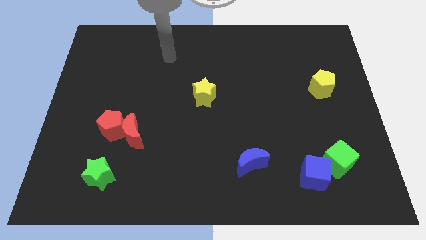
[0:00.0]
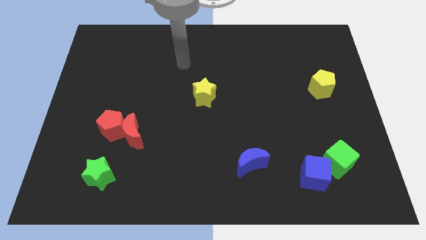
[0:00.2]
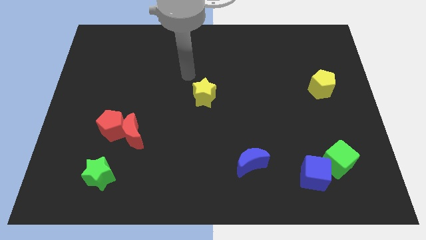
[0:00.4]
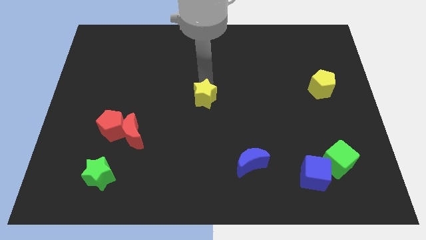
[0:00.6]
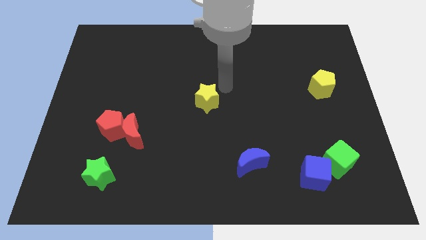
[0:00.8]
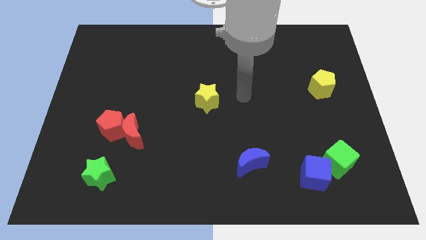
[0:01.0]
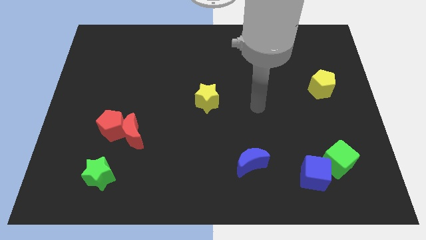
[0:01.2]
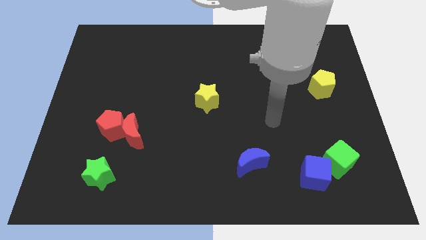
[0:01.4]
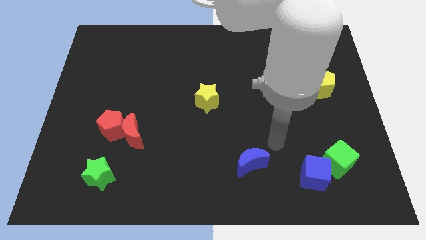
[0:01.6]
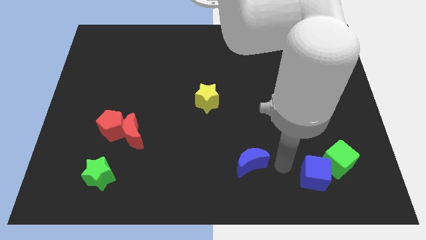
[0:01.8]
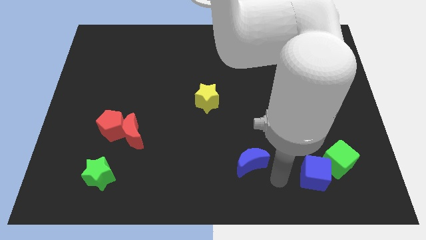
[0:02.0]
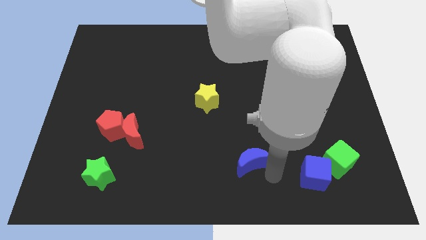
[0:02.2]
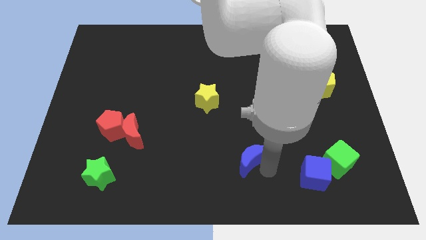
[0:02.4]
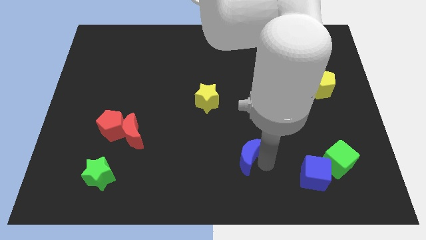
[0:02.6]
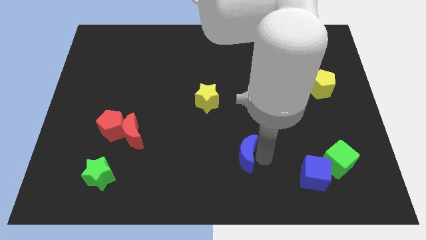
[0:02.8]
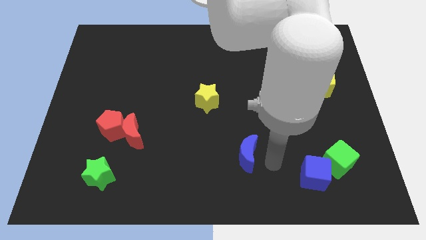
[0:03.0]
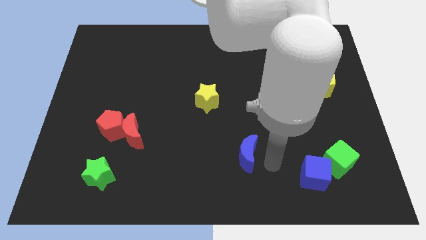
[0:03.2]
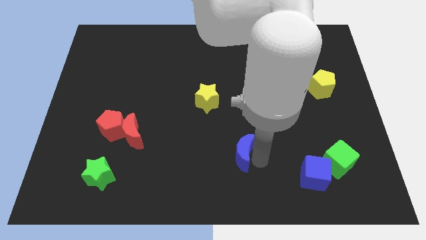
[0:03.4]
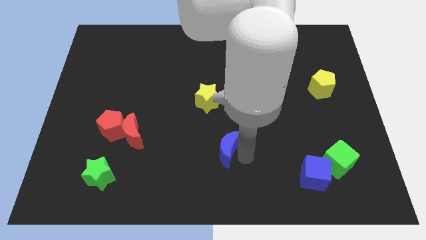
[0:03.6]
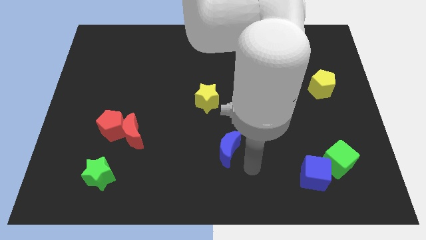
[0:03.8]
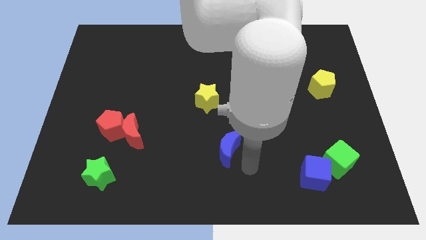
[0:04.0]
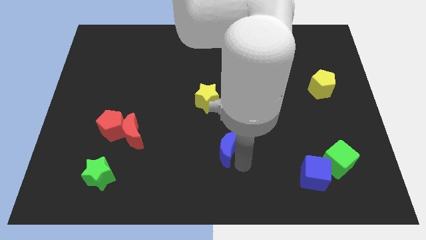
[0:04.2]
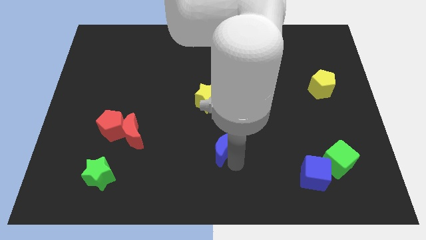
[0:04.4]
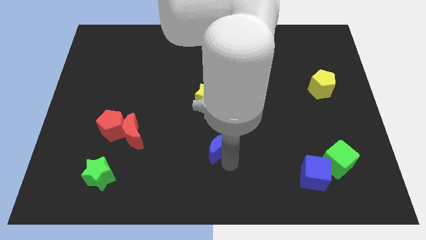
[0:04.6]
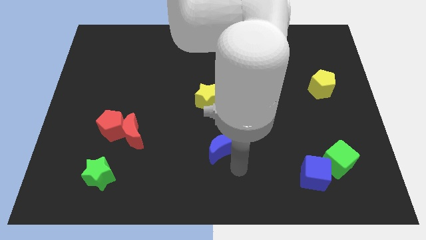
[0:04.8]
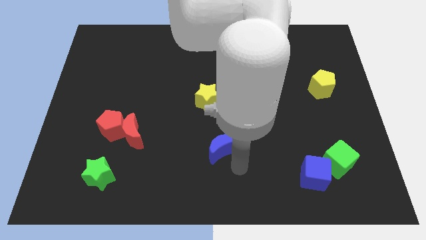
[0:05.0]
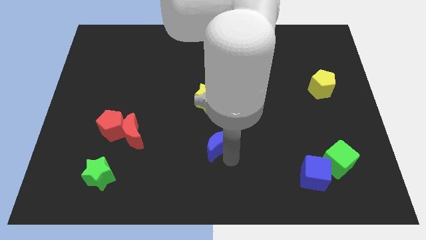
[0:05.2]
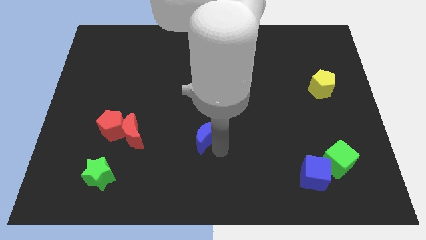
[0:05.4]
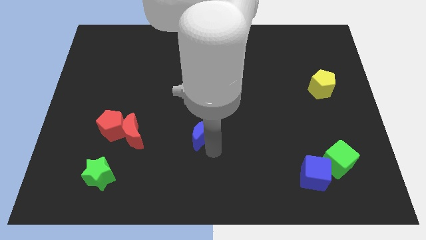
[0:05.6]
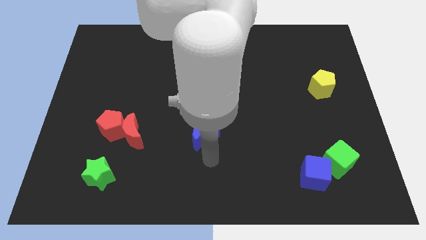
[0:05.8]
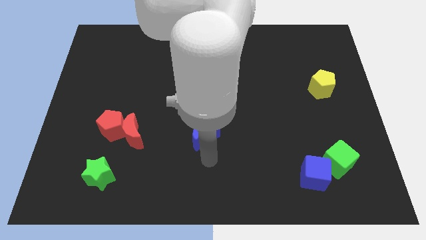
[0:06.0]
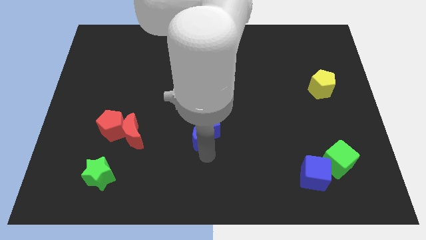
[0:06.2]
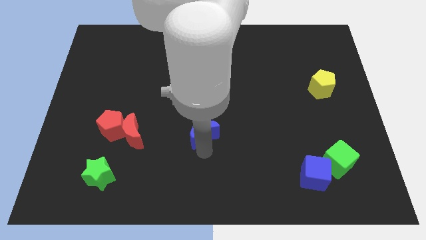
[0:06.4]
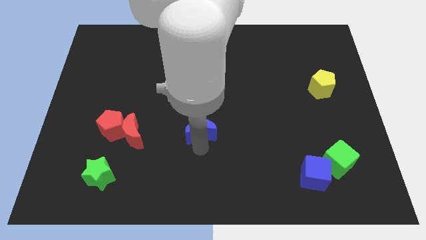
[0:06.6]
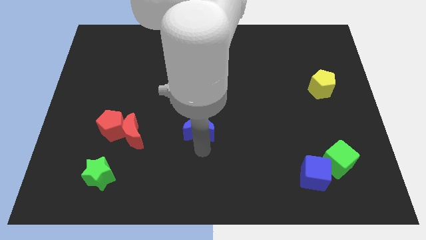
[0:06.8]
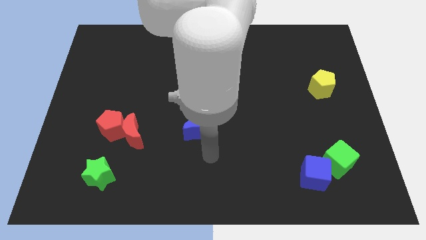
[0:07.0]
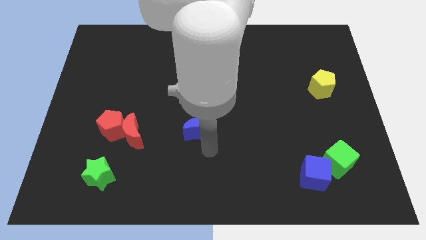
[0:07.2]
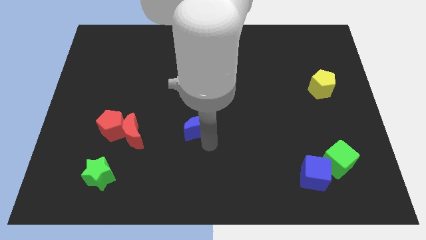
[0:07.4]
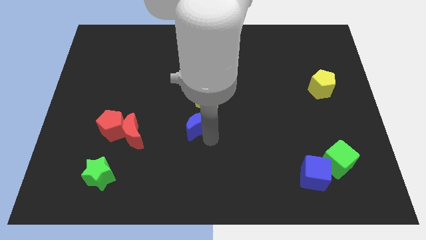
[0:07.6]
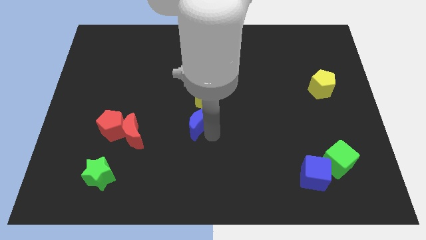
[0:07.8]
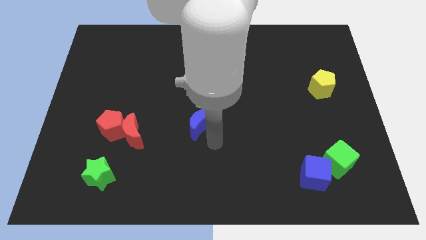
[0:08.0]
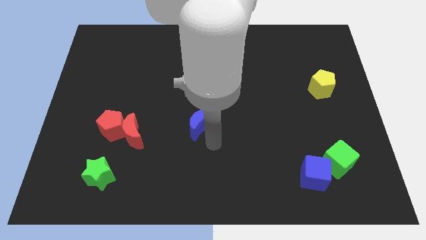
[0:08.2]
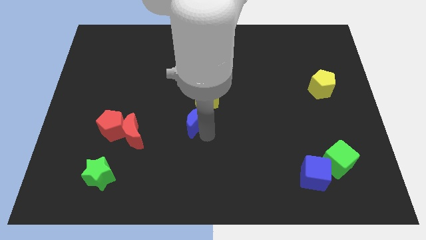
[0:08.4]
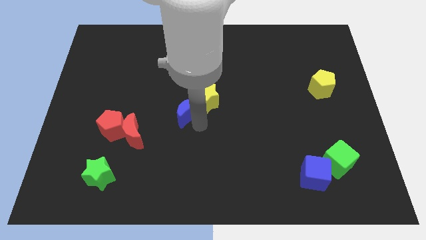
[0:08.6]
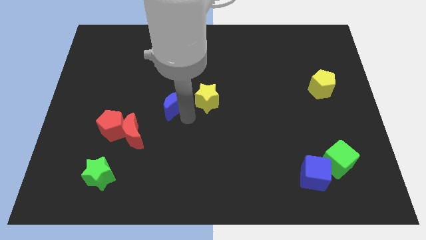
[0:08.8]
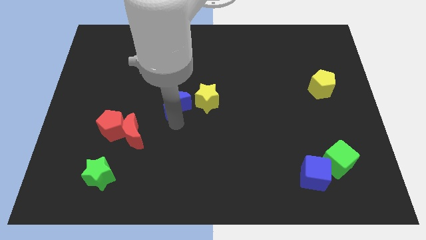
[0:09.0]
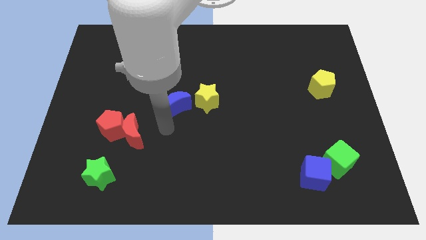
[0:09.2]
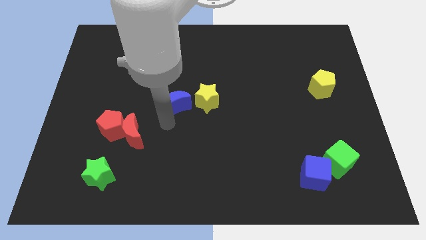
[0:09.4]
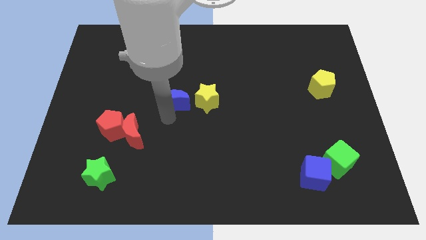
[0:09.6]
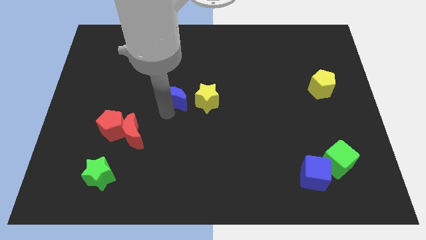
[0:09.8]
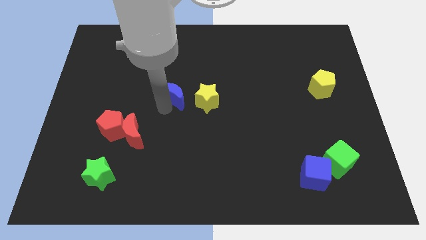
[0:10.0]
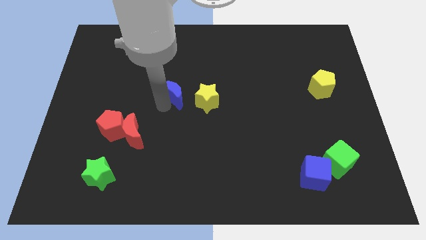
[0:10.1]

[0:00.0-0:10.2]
move the blue moon diagonally up and to the left of the yellow star

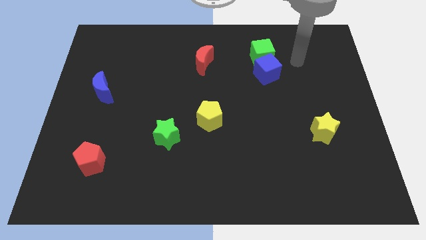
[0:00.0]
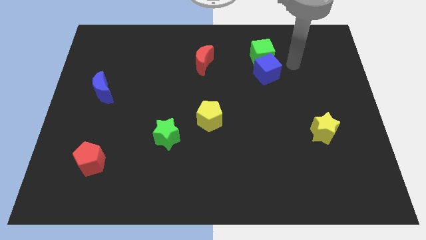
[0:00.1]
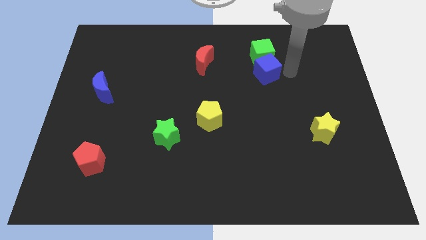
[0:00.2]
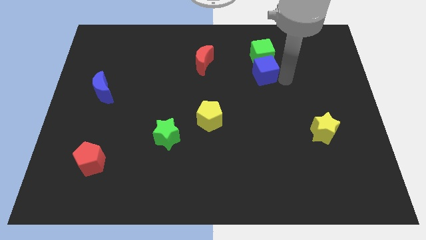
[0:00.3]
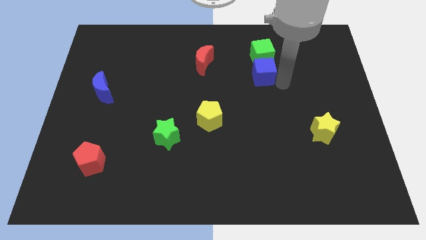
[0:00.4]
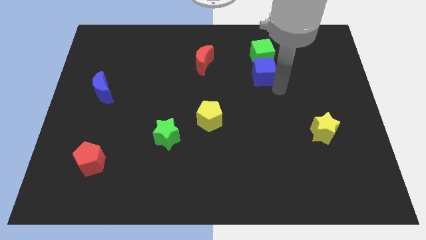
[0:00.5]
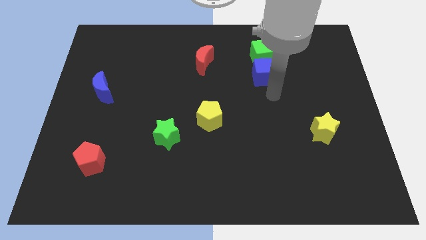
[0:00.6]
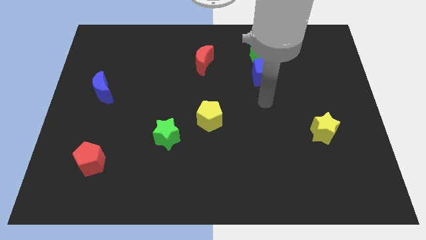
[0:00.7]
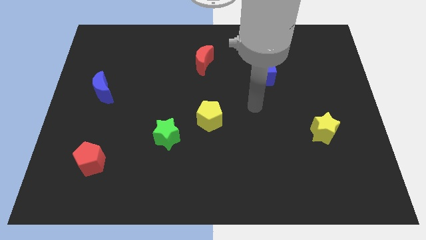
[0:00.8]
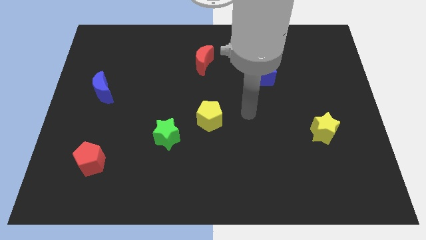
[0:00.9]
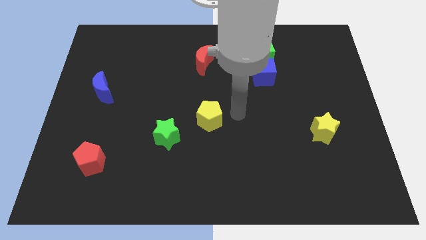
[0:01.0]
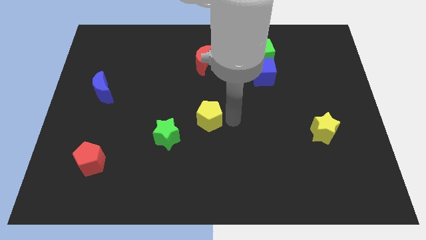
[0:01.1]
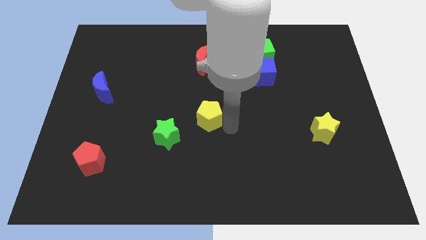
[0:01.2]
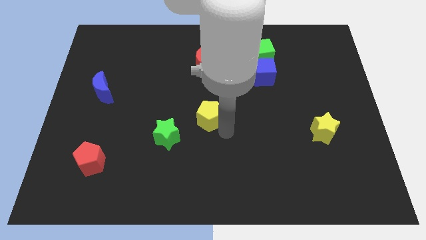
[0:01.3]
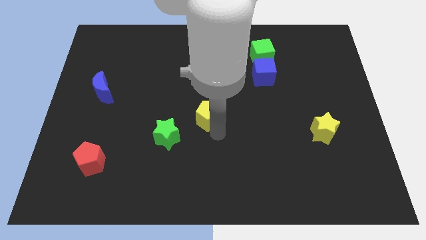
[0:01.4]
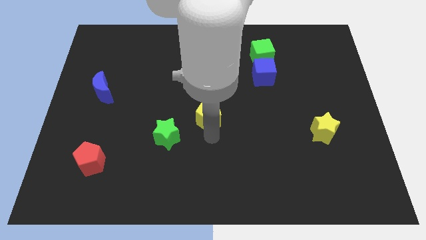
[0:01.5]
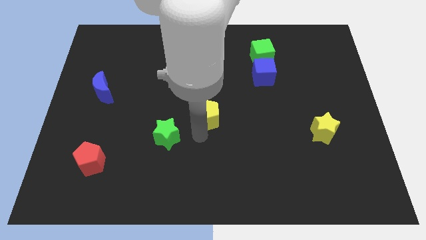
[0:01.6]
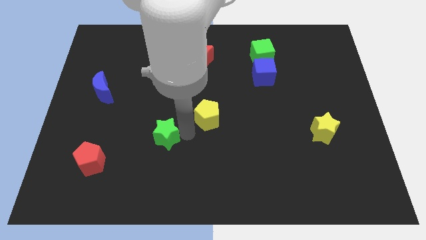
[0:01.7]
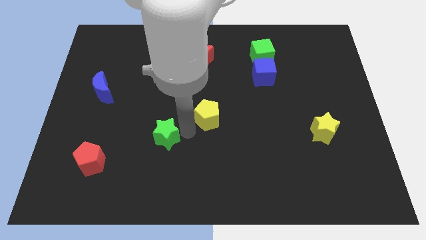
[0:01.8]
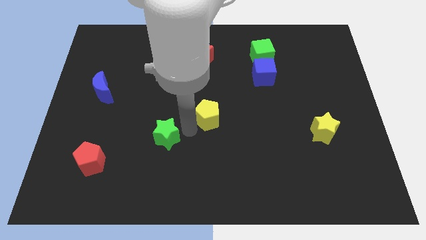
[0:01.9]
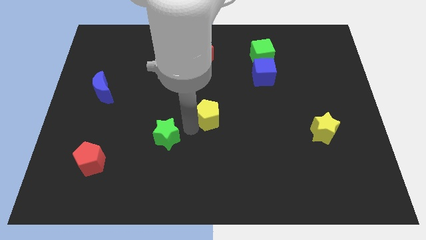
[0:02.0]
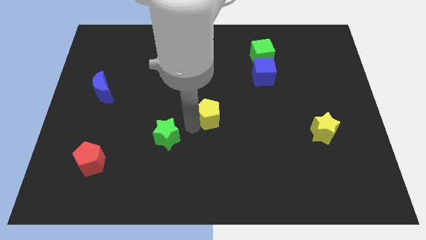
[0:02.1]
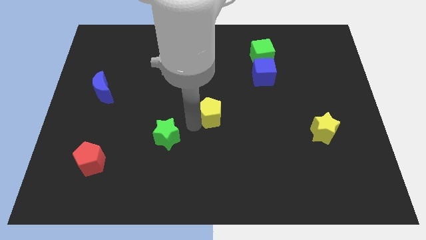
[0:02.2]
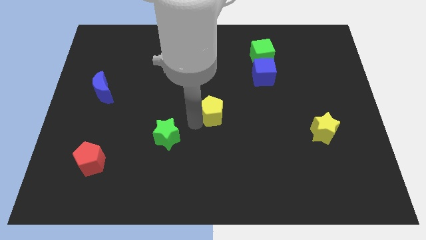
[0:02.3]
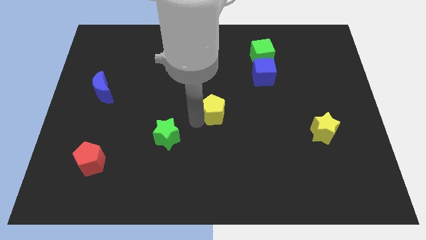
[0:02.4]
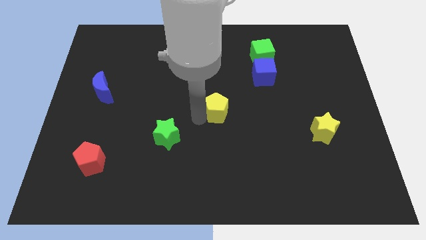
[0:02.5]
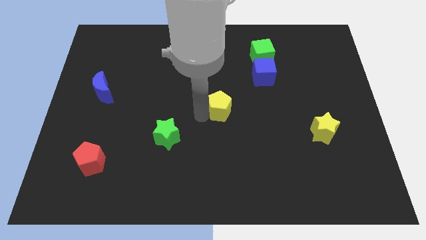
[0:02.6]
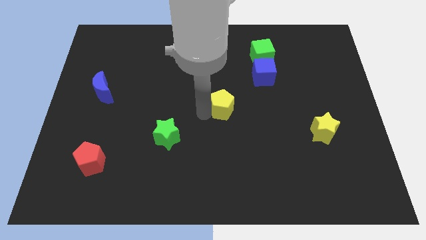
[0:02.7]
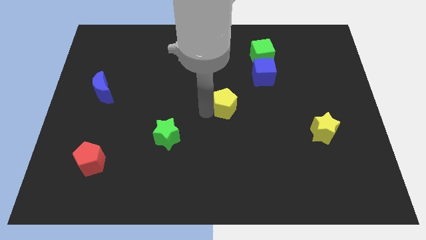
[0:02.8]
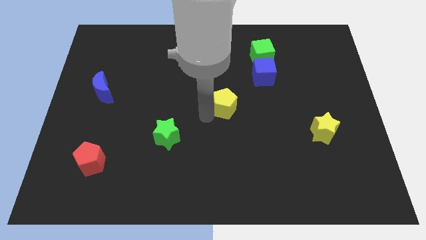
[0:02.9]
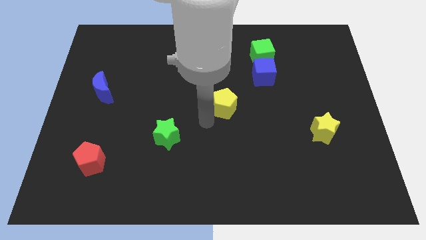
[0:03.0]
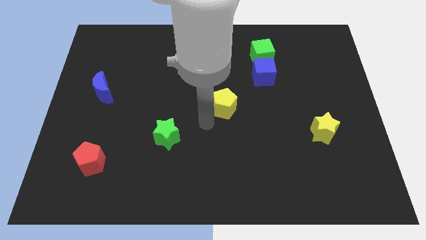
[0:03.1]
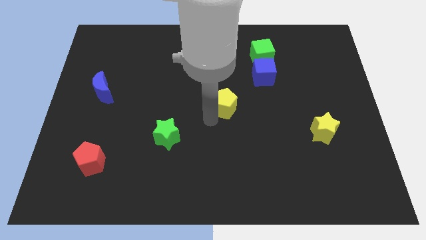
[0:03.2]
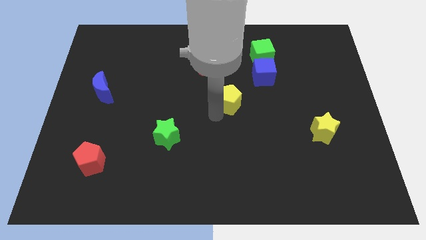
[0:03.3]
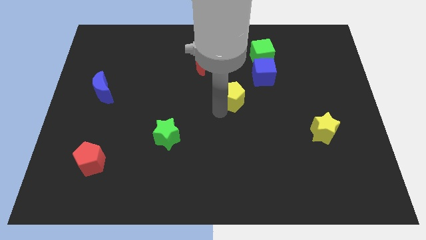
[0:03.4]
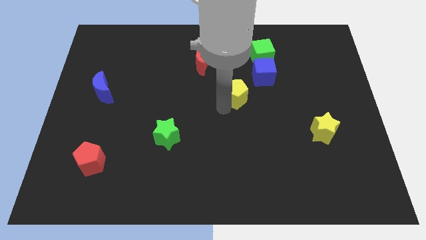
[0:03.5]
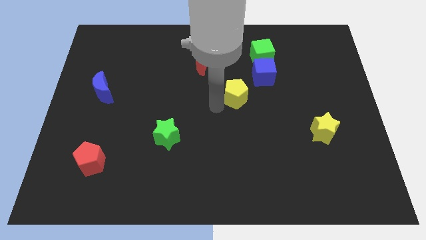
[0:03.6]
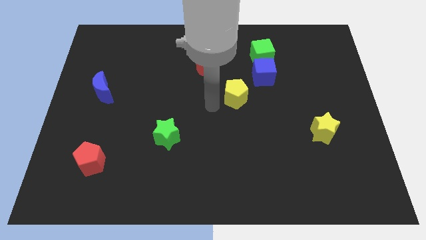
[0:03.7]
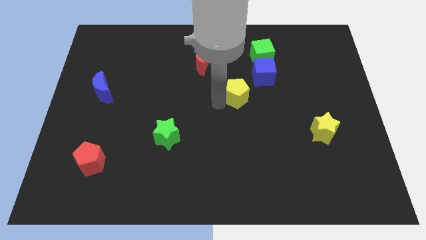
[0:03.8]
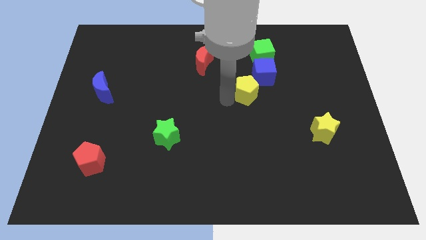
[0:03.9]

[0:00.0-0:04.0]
slide the yellow pentagon below the green cube
